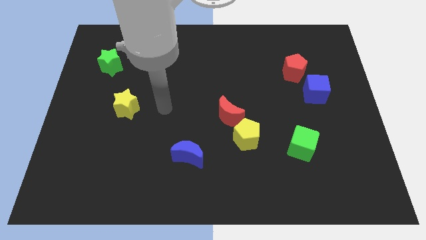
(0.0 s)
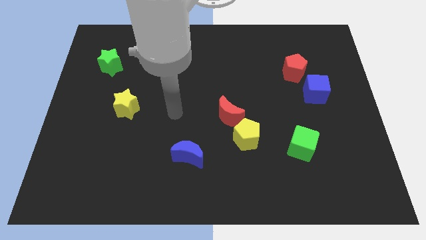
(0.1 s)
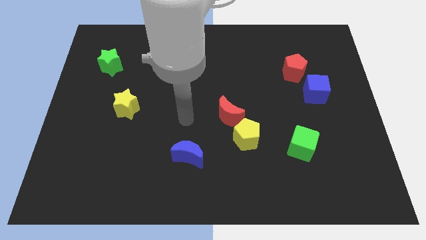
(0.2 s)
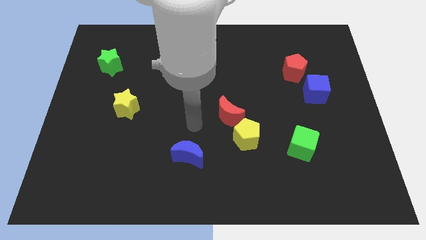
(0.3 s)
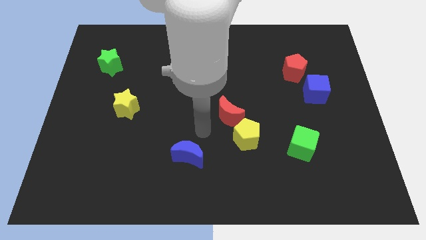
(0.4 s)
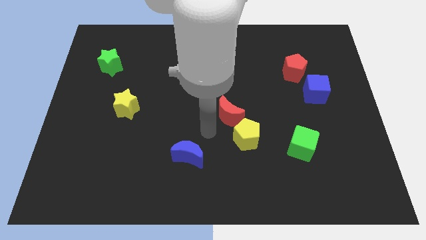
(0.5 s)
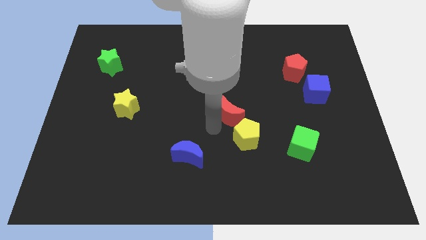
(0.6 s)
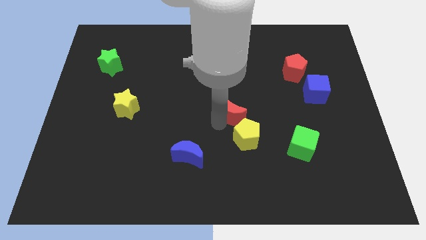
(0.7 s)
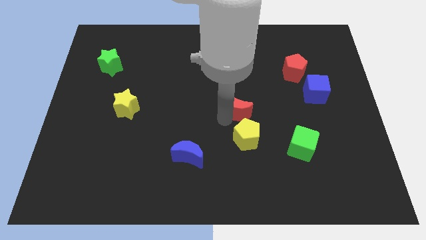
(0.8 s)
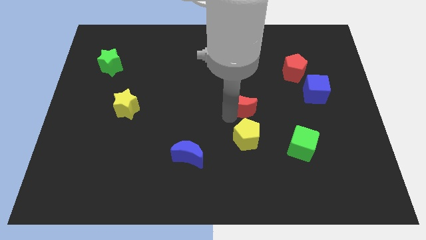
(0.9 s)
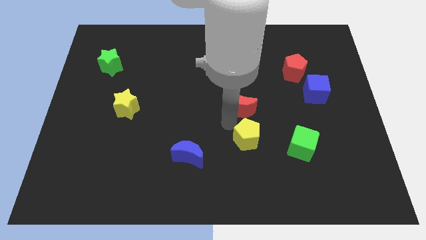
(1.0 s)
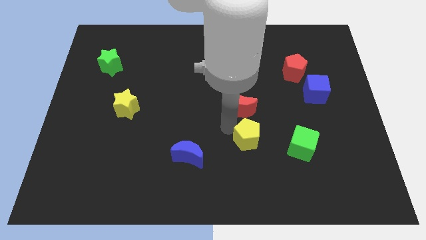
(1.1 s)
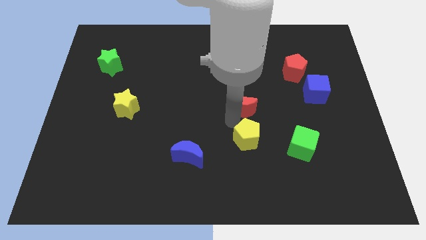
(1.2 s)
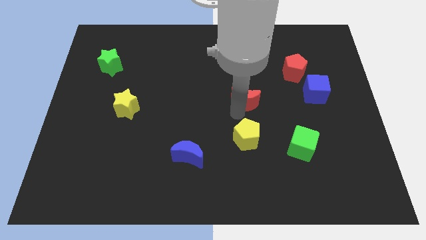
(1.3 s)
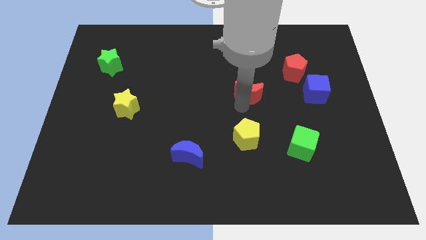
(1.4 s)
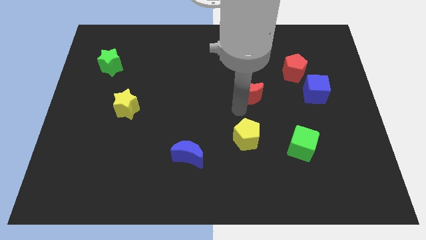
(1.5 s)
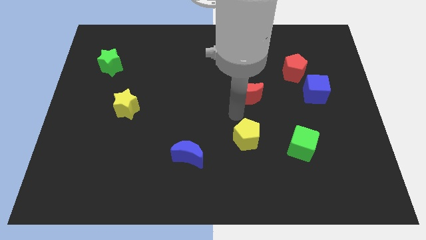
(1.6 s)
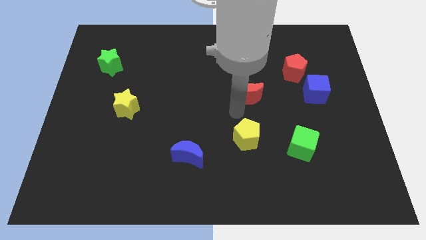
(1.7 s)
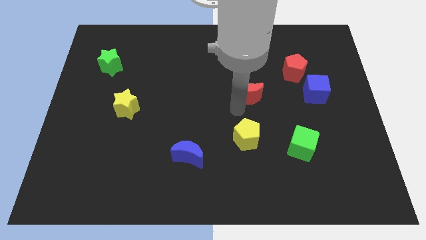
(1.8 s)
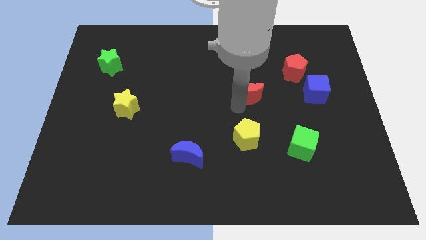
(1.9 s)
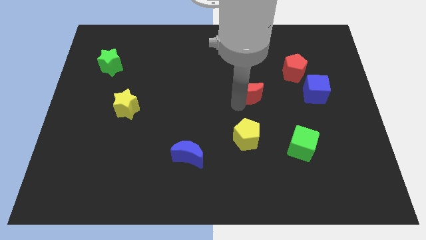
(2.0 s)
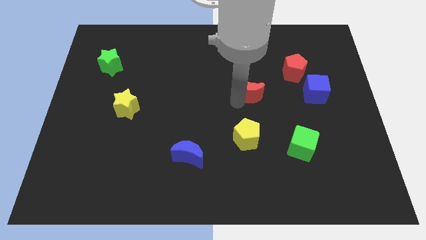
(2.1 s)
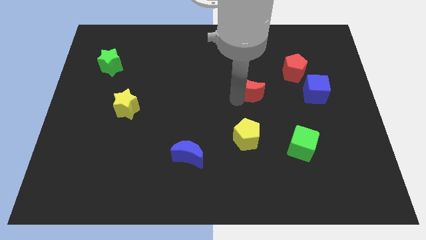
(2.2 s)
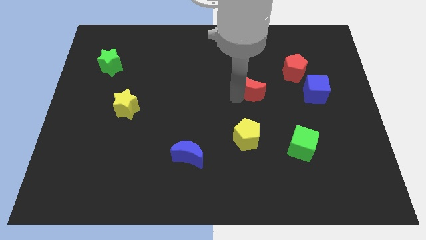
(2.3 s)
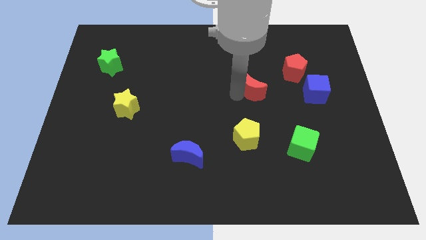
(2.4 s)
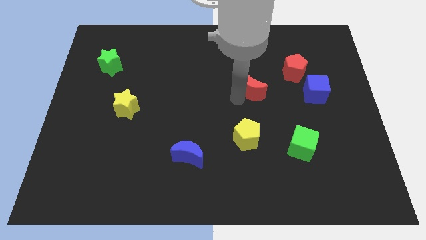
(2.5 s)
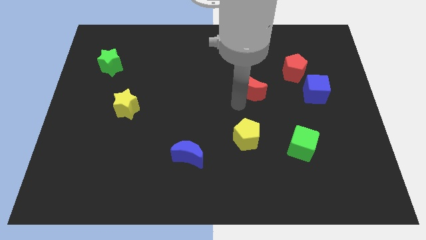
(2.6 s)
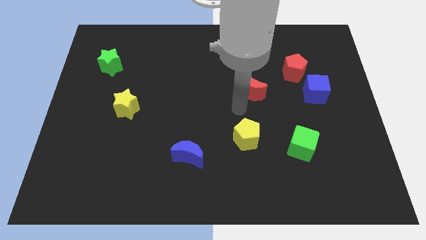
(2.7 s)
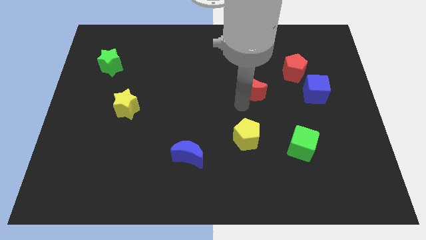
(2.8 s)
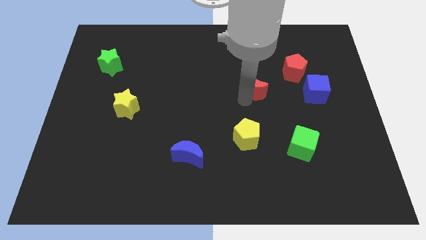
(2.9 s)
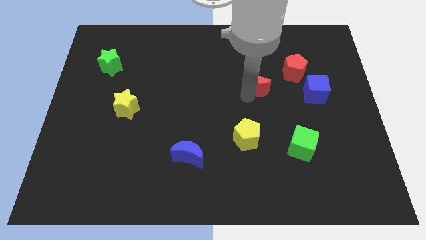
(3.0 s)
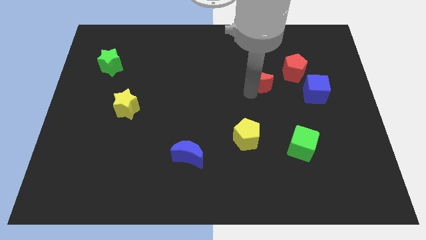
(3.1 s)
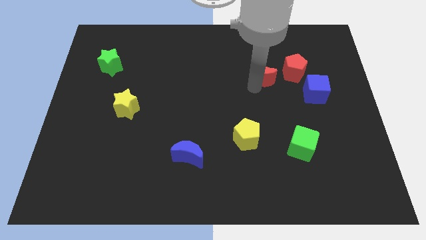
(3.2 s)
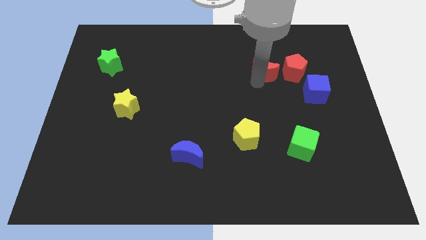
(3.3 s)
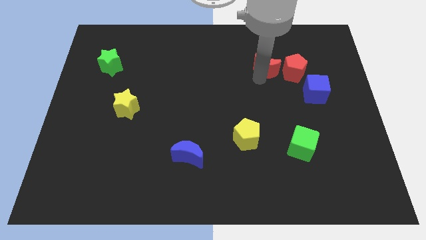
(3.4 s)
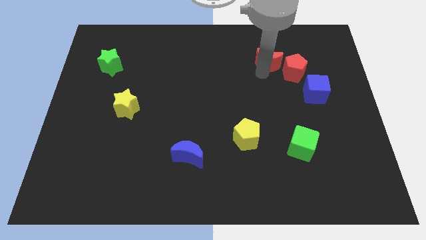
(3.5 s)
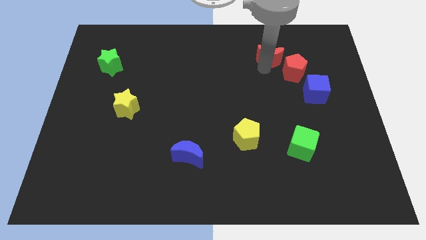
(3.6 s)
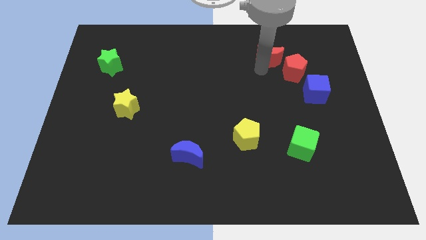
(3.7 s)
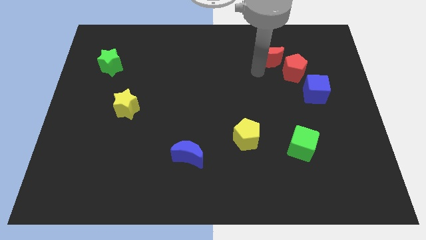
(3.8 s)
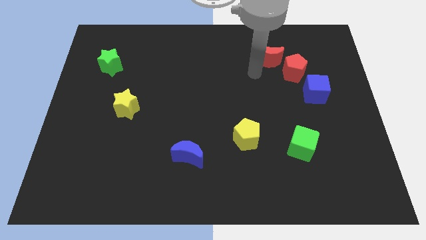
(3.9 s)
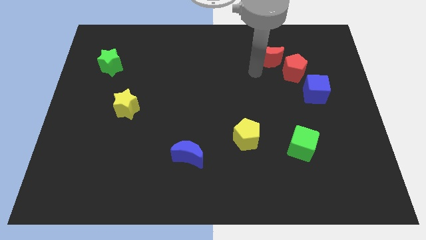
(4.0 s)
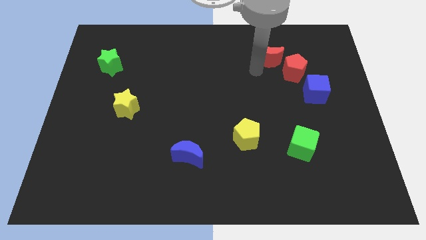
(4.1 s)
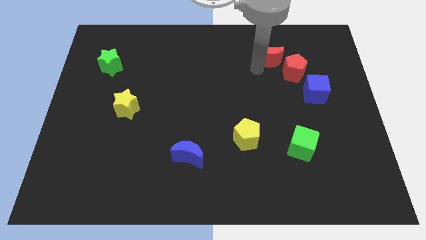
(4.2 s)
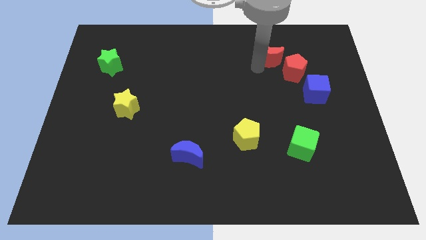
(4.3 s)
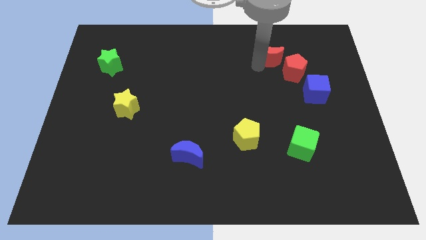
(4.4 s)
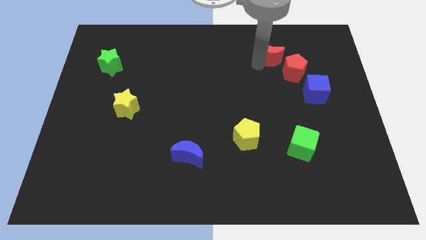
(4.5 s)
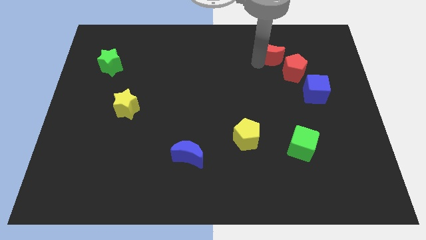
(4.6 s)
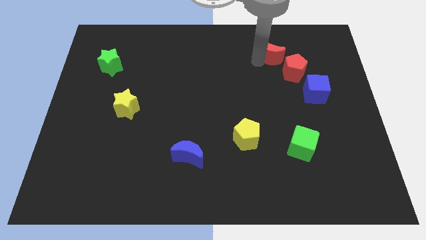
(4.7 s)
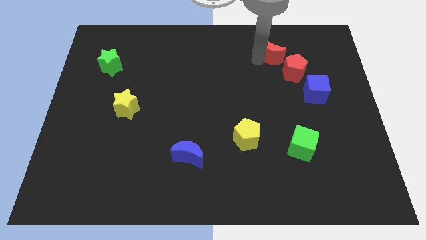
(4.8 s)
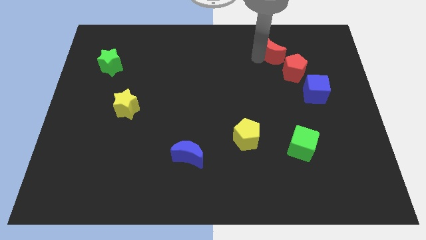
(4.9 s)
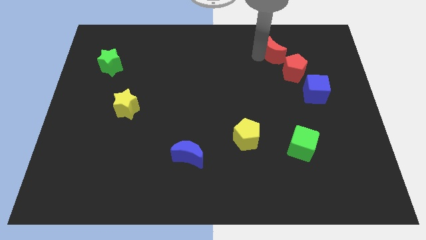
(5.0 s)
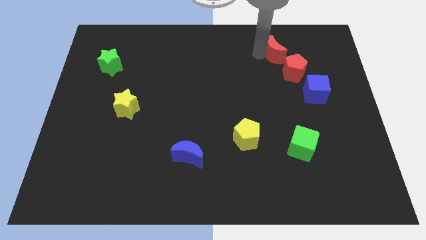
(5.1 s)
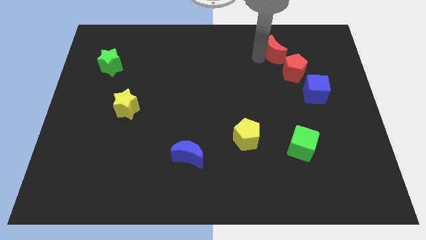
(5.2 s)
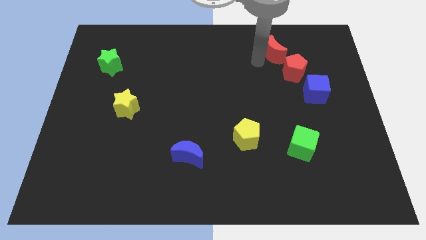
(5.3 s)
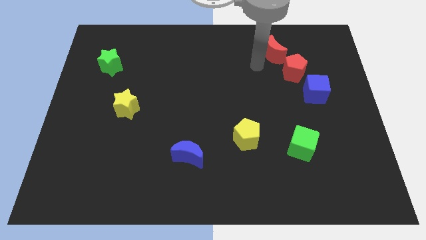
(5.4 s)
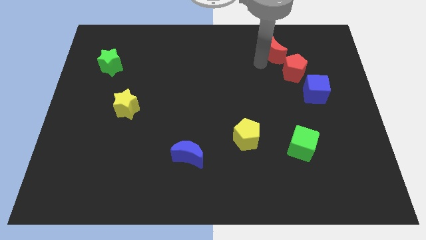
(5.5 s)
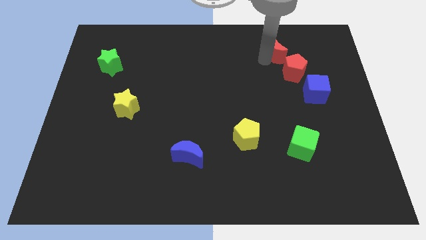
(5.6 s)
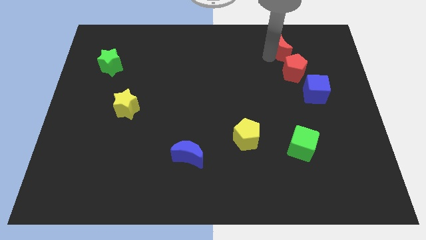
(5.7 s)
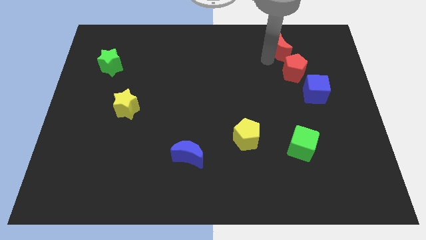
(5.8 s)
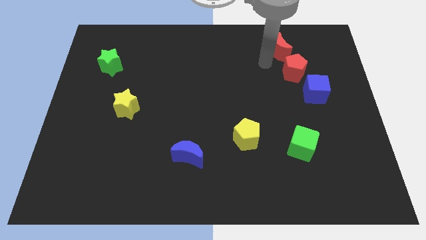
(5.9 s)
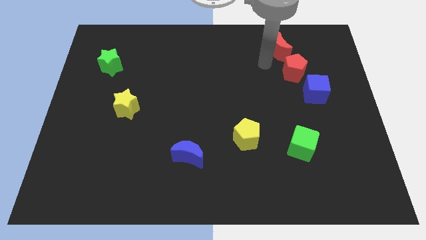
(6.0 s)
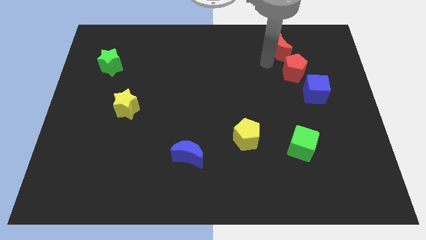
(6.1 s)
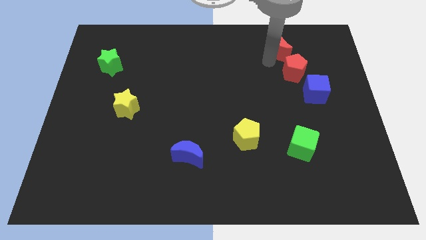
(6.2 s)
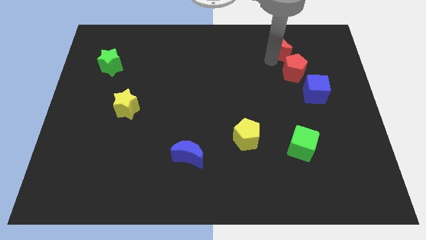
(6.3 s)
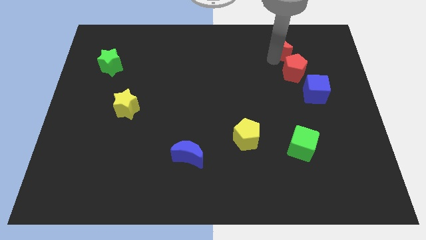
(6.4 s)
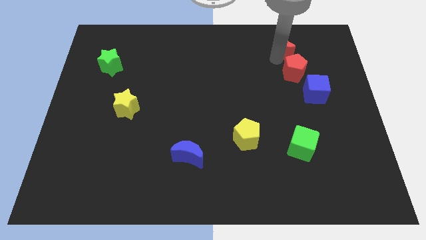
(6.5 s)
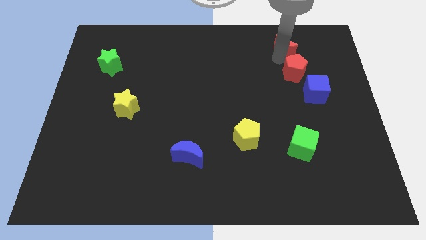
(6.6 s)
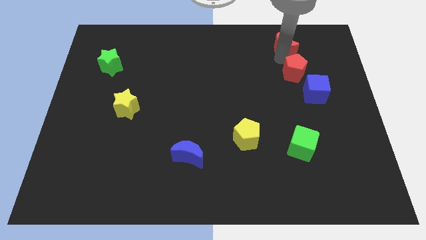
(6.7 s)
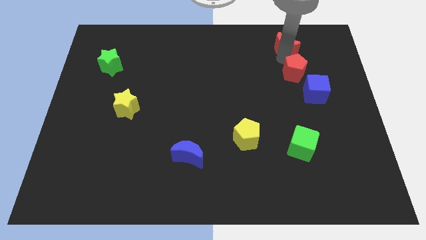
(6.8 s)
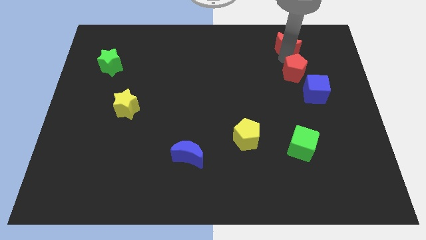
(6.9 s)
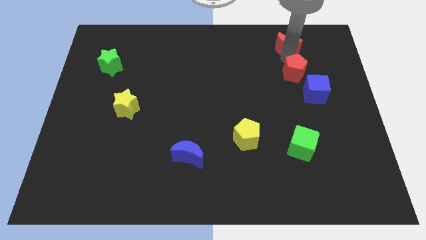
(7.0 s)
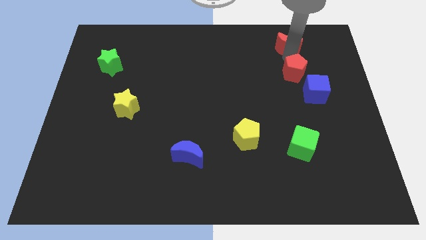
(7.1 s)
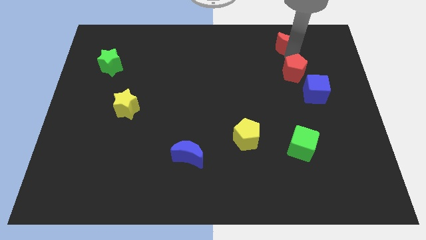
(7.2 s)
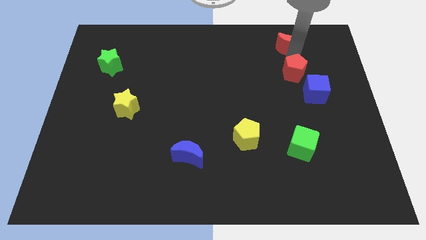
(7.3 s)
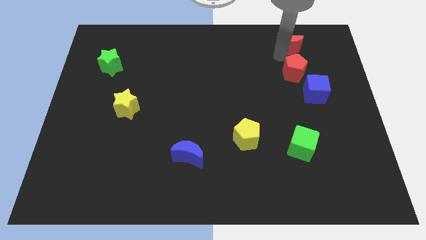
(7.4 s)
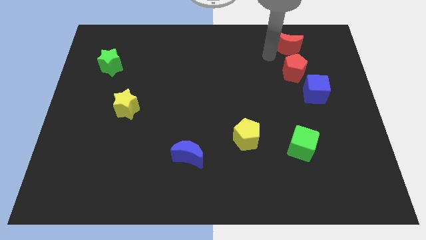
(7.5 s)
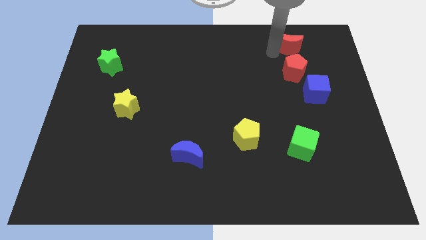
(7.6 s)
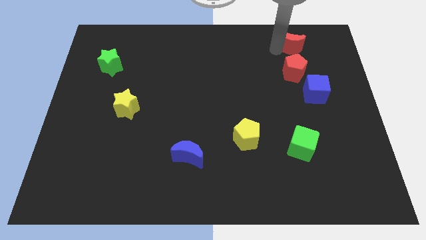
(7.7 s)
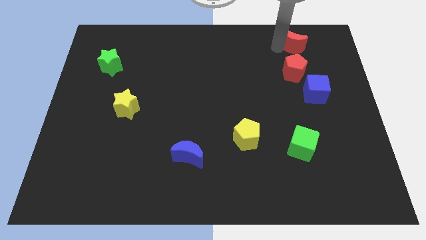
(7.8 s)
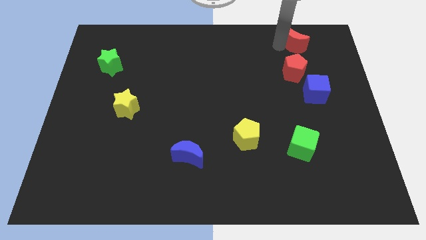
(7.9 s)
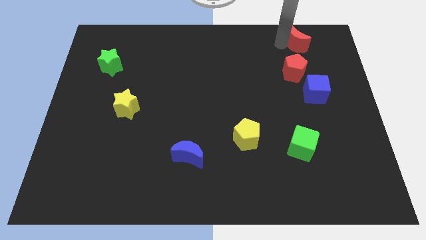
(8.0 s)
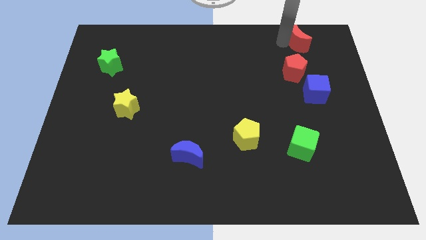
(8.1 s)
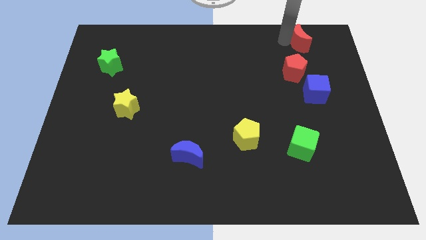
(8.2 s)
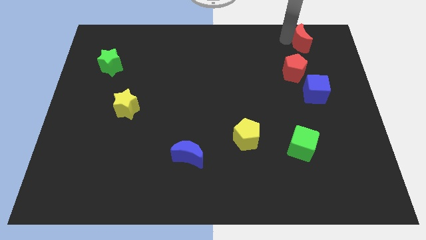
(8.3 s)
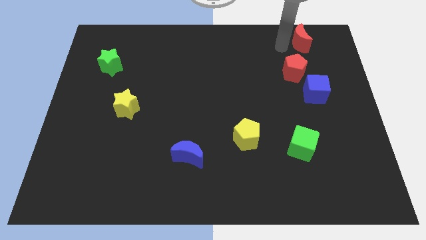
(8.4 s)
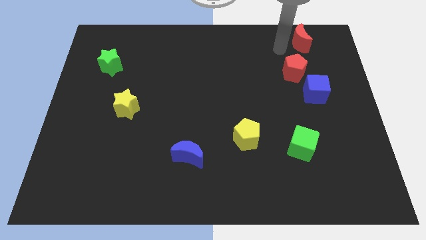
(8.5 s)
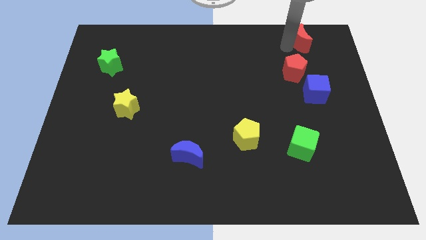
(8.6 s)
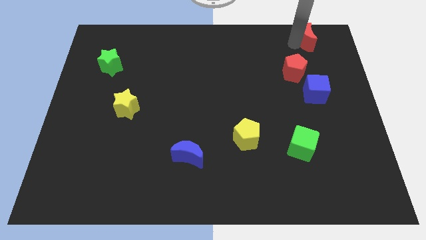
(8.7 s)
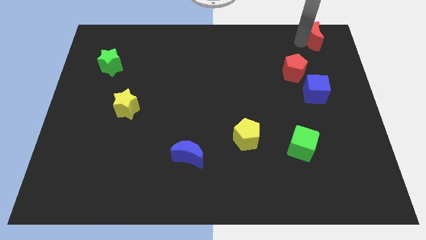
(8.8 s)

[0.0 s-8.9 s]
move the red moon to the top right of the board
